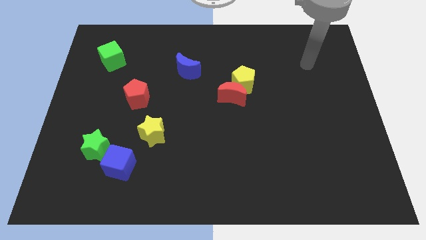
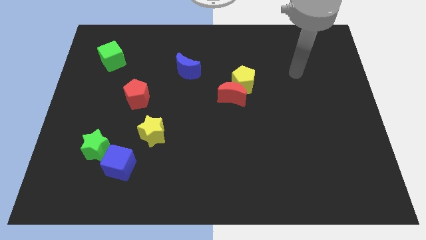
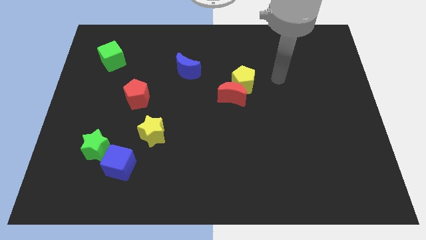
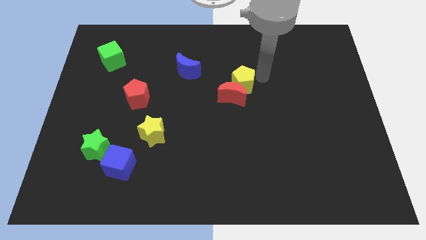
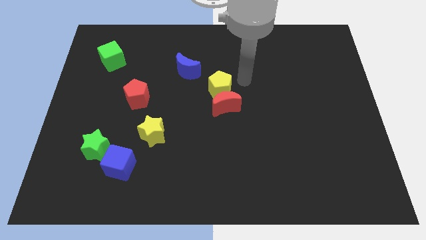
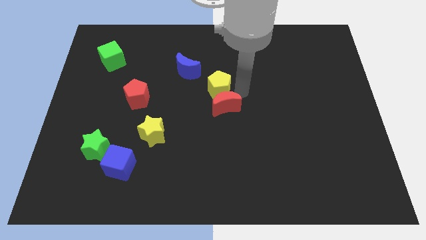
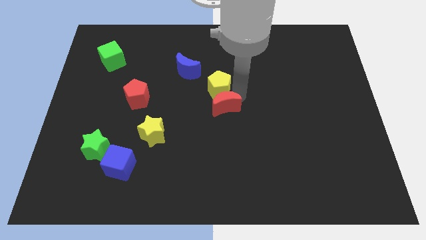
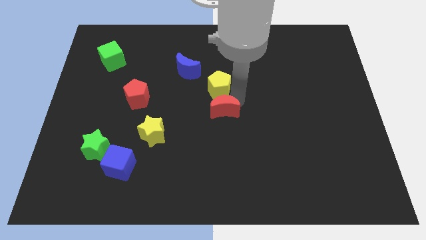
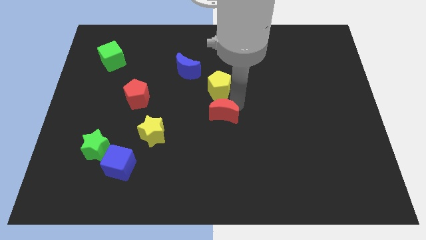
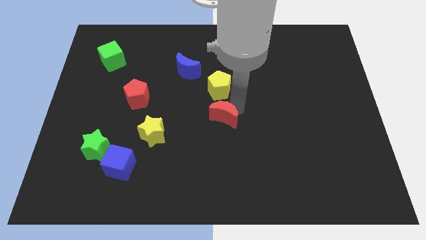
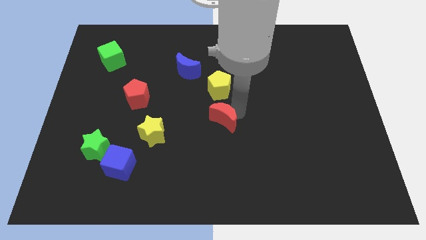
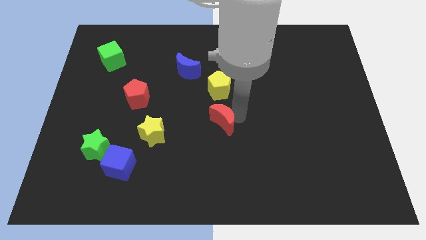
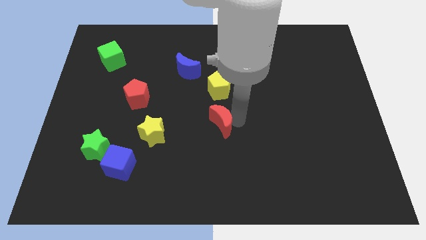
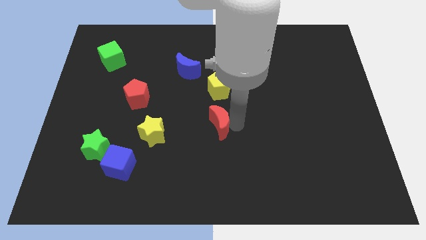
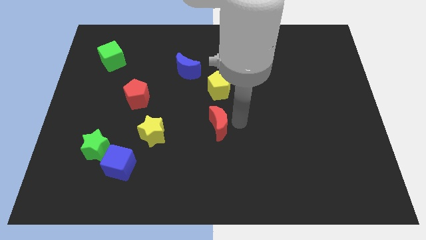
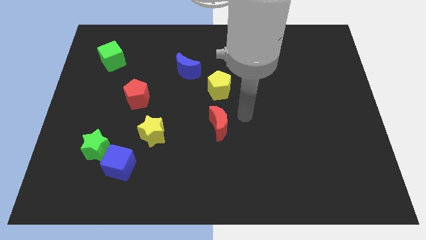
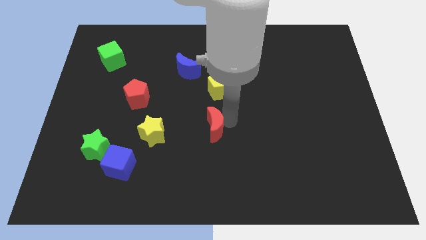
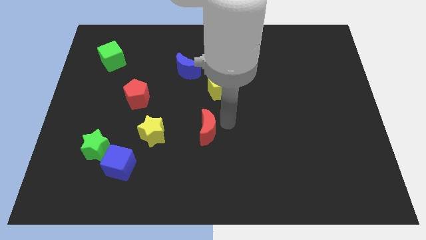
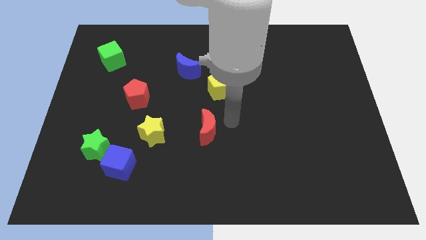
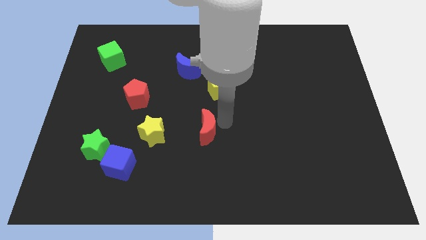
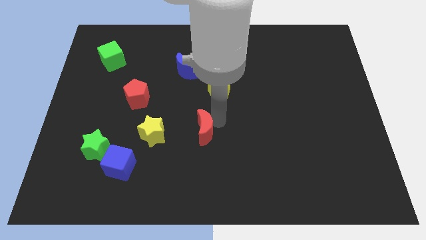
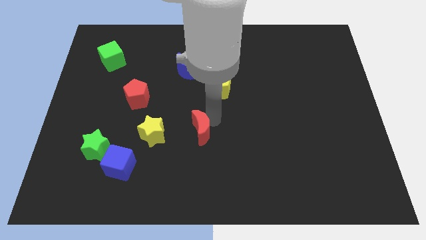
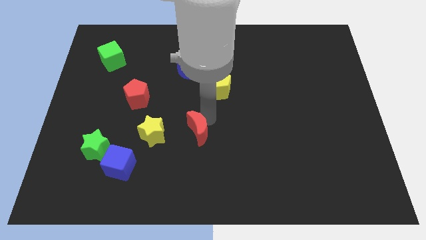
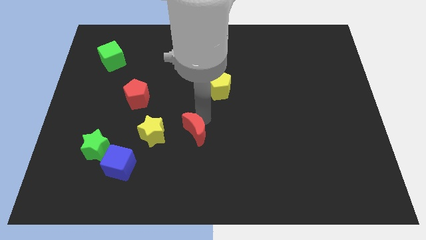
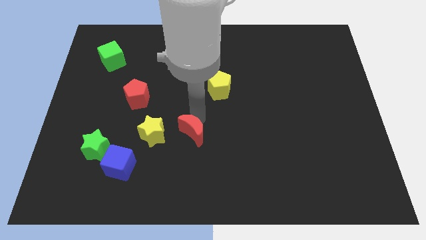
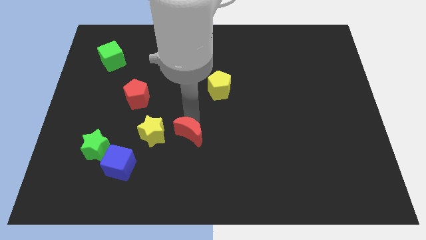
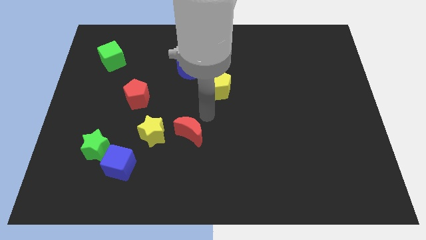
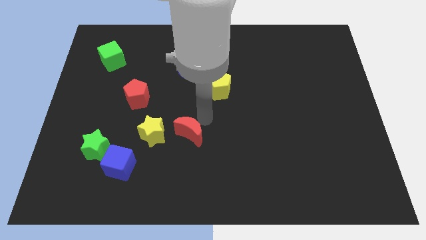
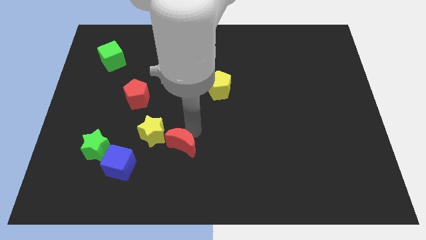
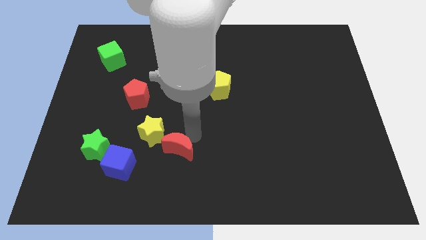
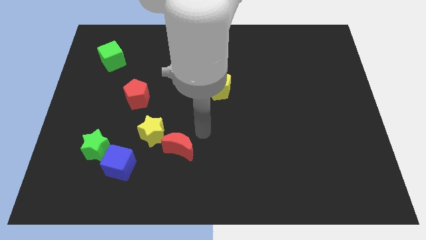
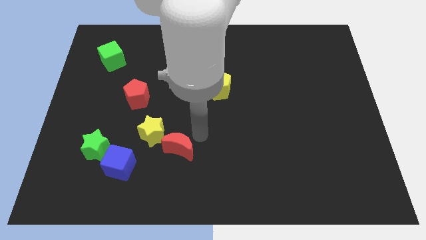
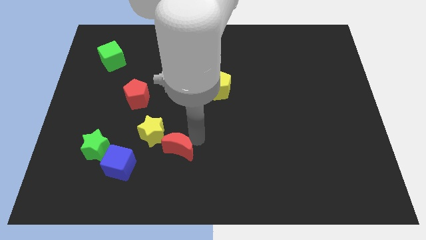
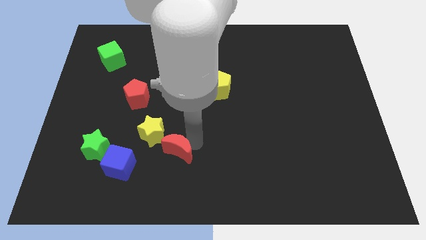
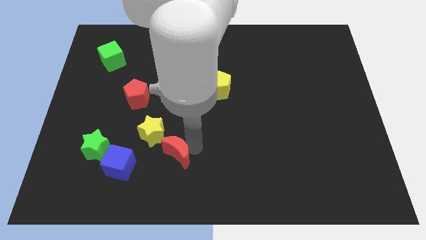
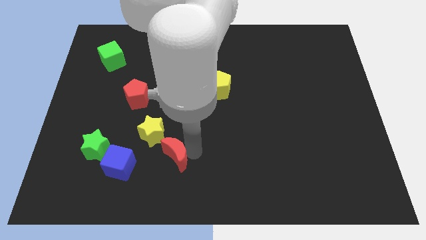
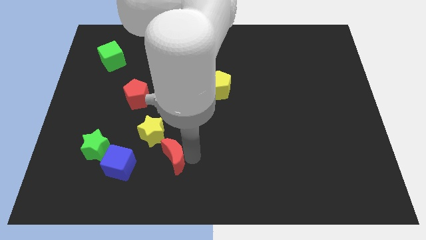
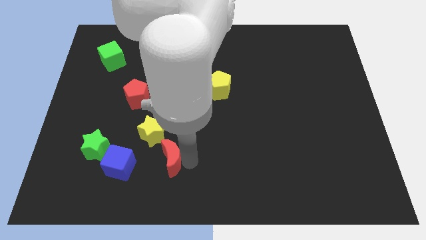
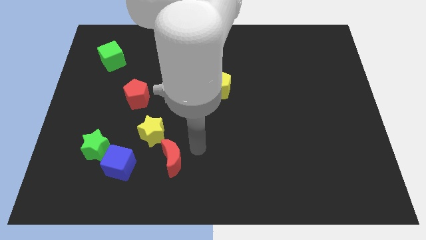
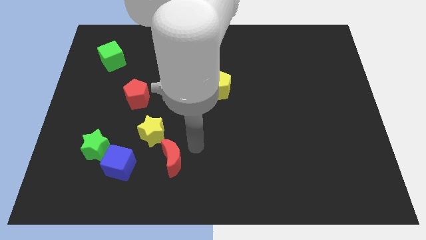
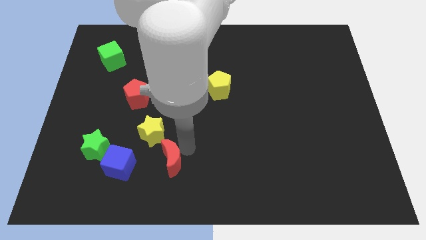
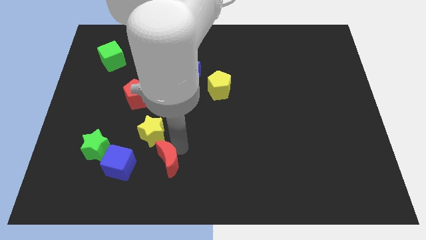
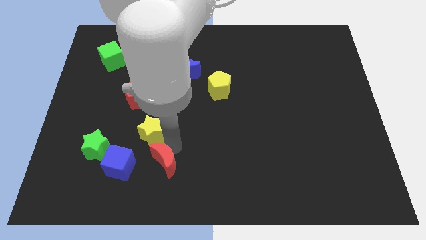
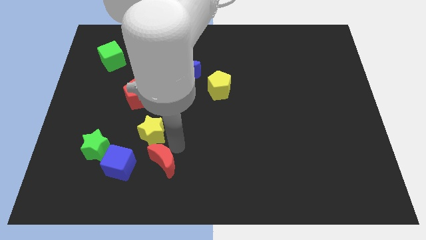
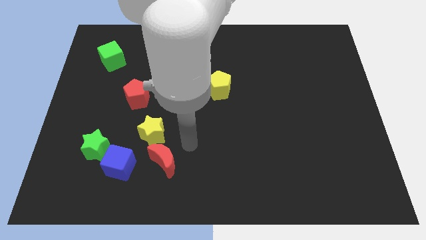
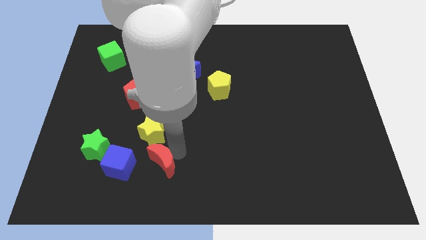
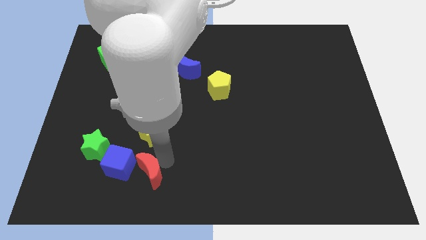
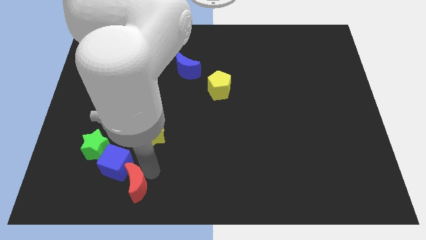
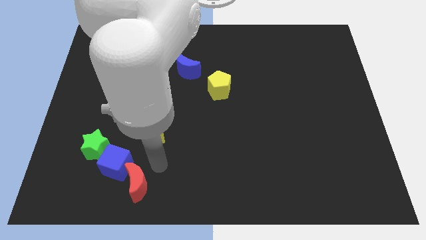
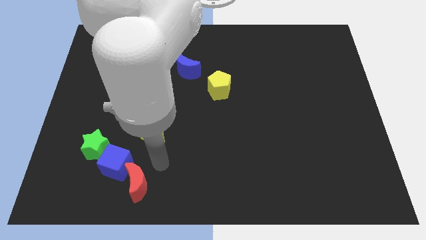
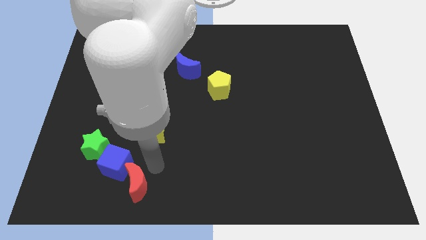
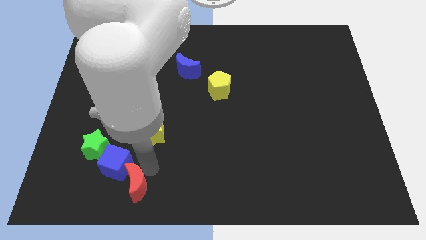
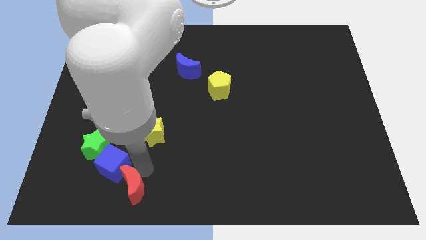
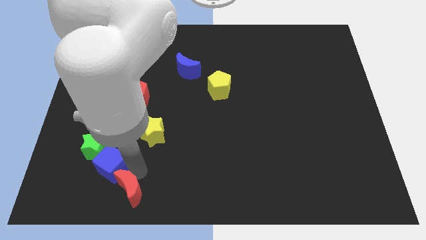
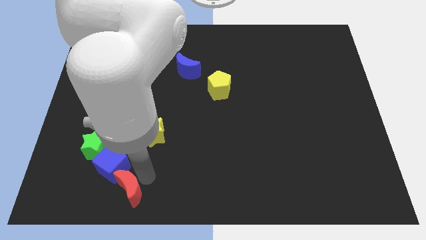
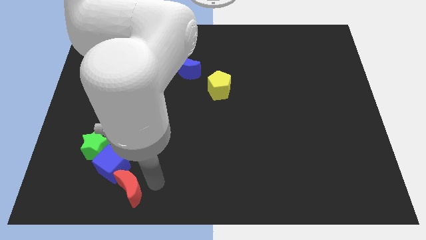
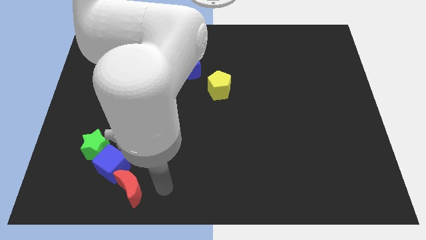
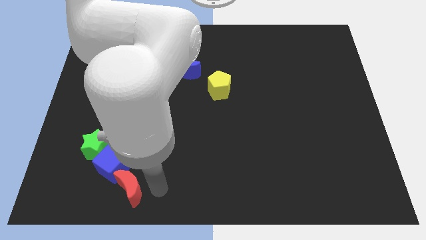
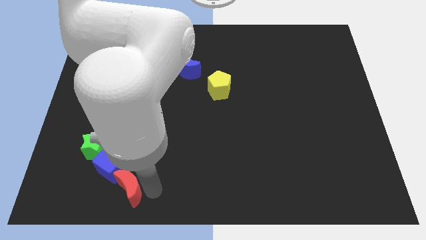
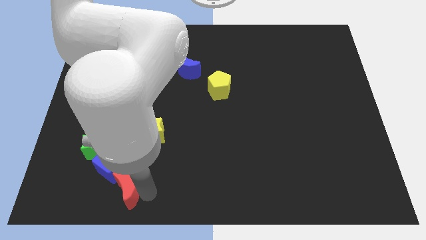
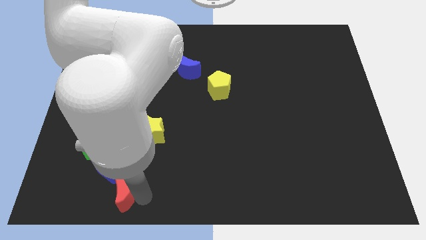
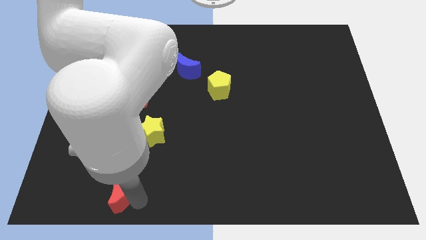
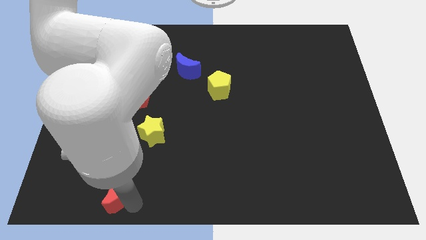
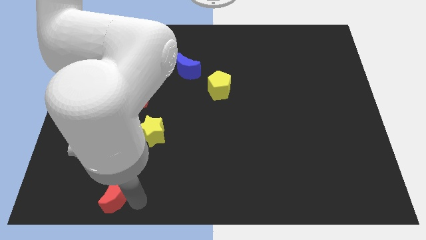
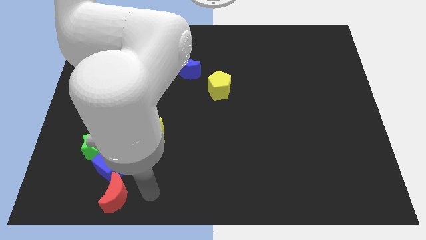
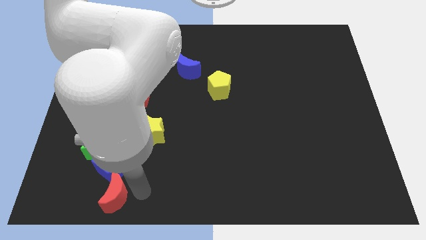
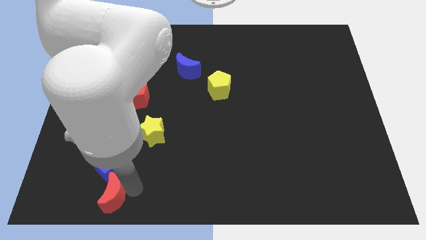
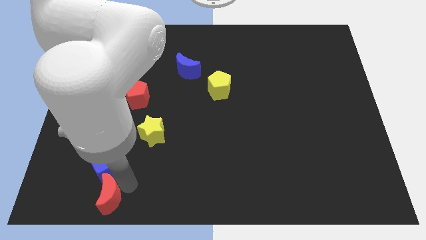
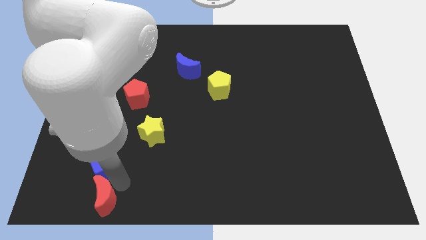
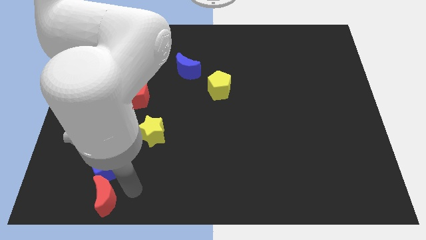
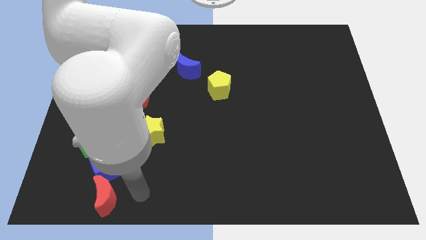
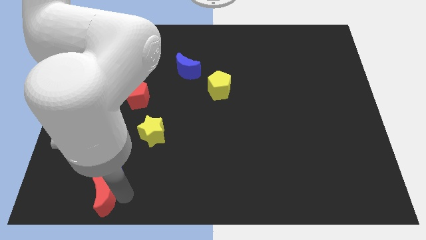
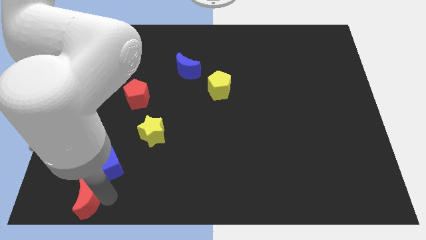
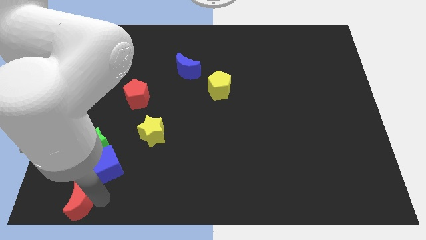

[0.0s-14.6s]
push the red moon to the bottom left

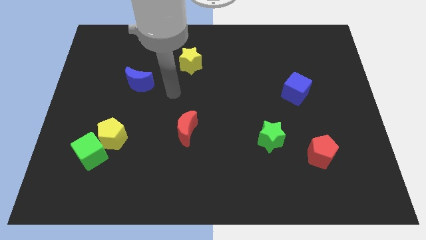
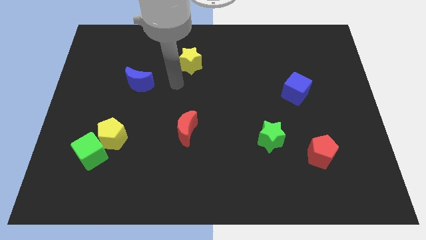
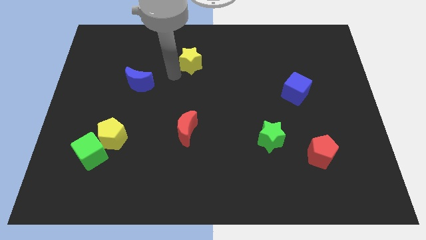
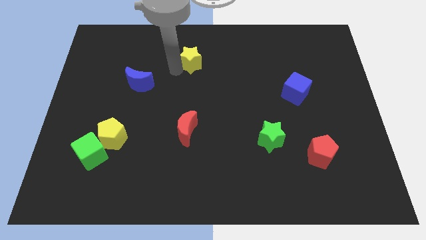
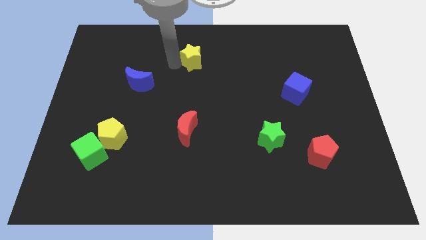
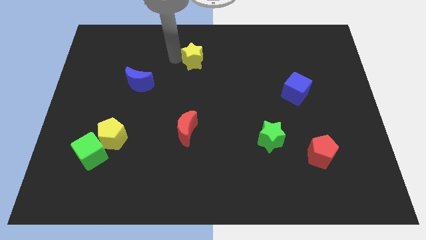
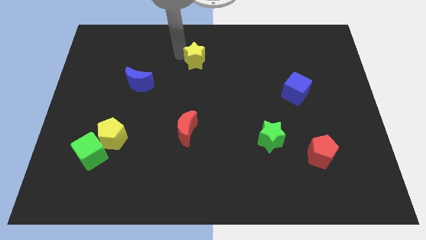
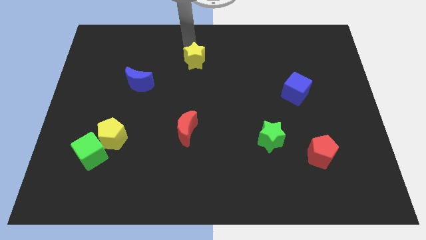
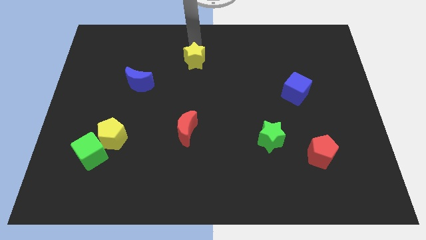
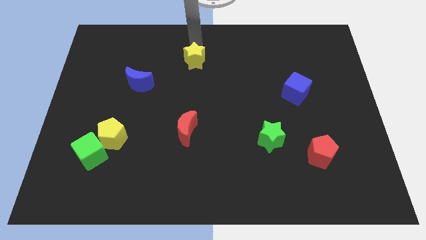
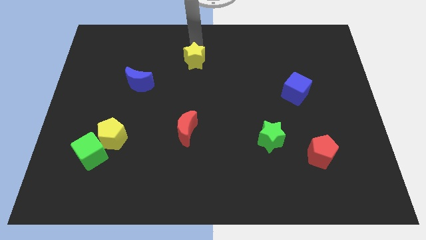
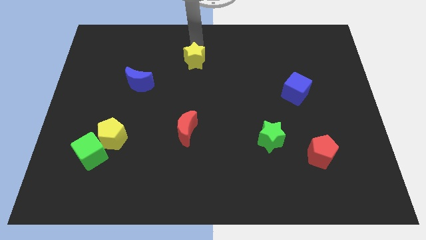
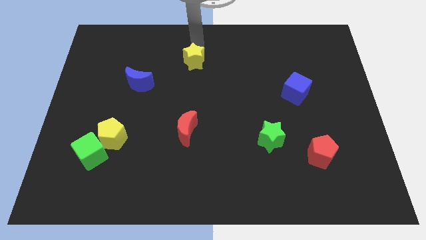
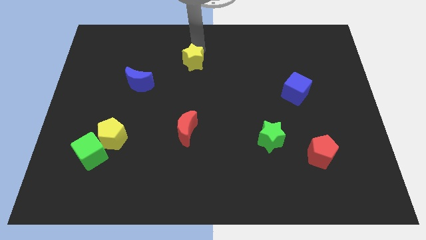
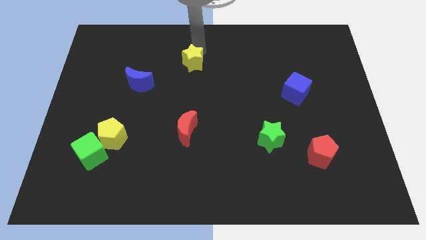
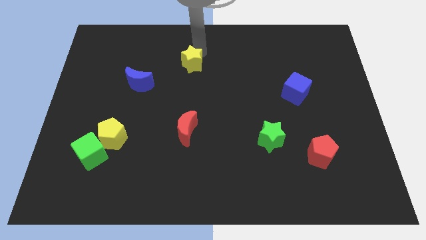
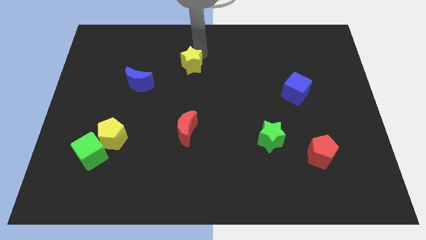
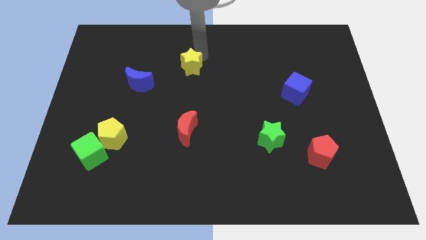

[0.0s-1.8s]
put the yellow star to the center of the board
